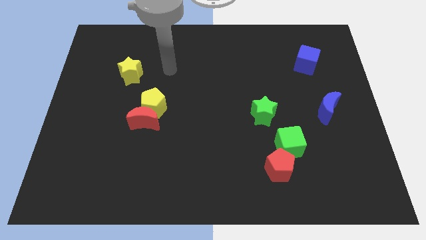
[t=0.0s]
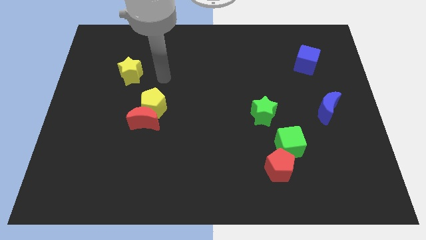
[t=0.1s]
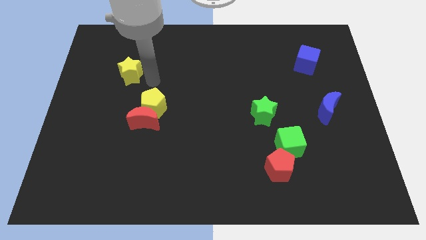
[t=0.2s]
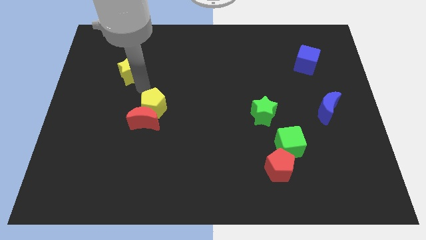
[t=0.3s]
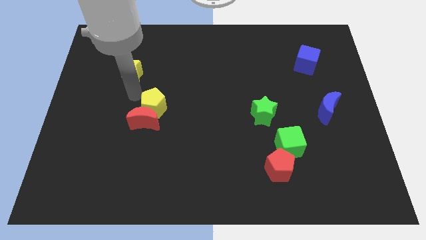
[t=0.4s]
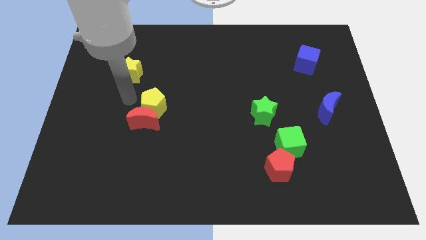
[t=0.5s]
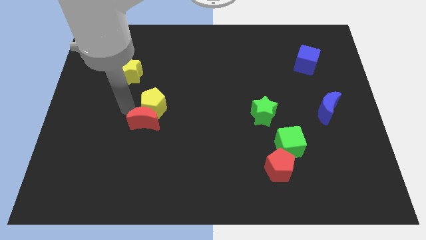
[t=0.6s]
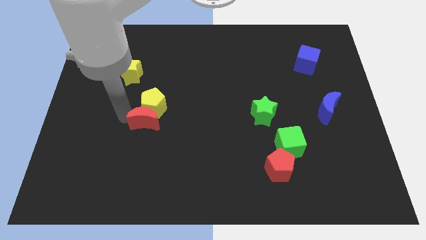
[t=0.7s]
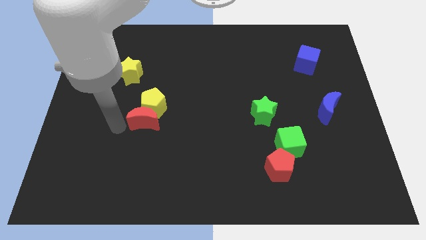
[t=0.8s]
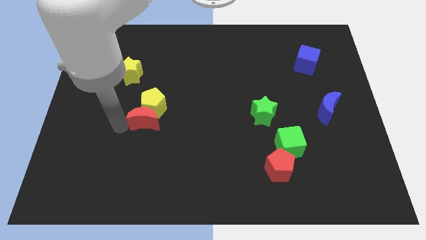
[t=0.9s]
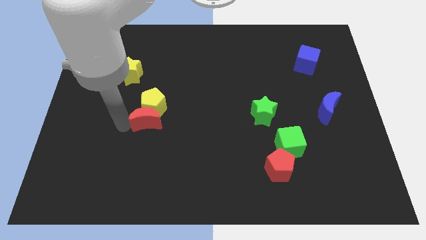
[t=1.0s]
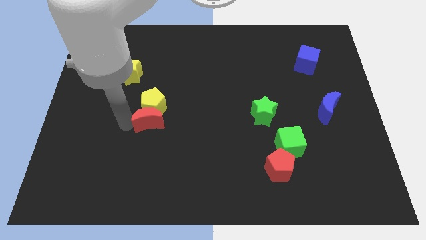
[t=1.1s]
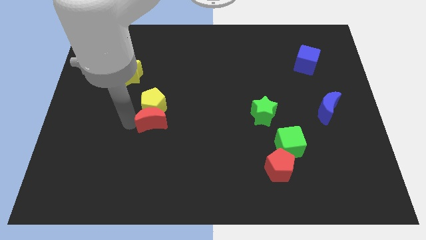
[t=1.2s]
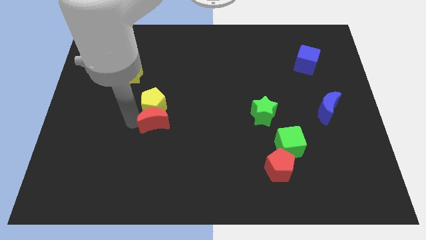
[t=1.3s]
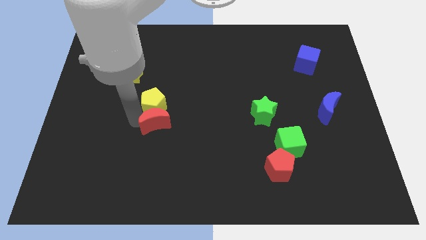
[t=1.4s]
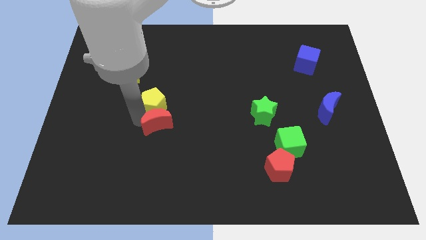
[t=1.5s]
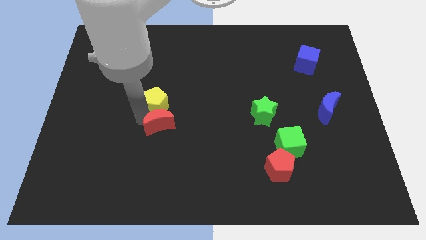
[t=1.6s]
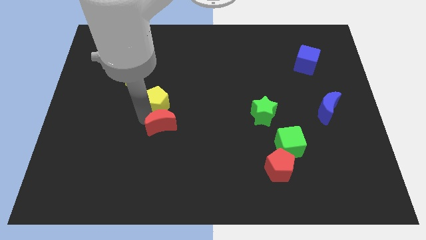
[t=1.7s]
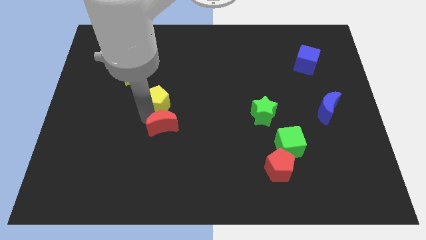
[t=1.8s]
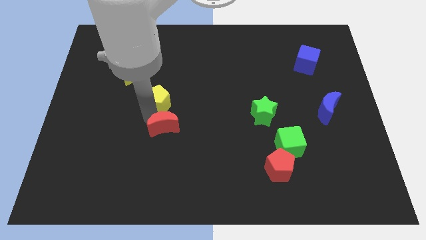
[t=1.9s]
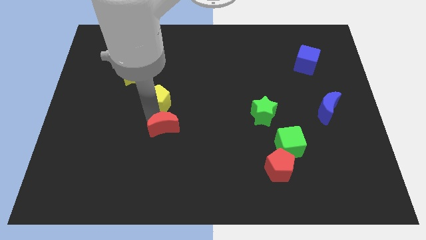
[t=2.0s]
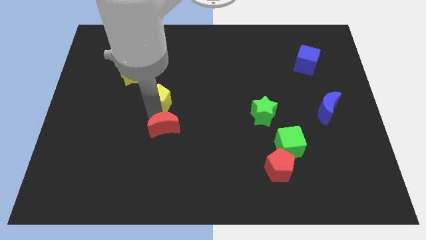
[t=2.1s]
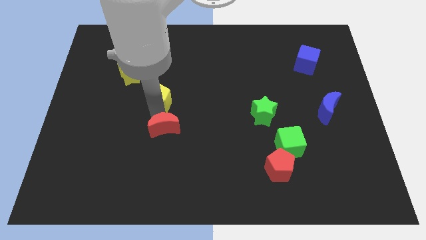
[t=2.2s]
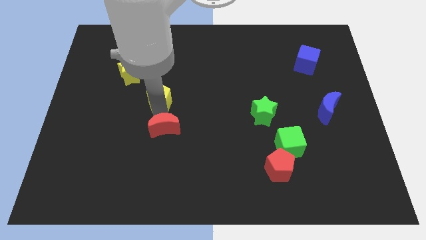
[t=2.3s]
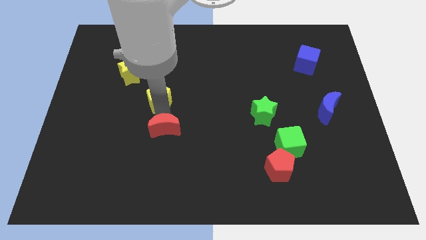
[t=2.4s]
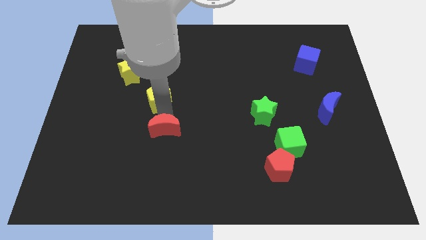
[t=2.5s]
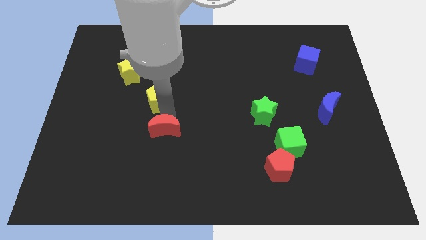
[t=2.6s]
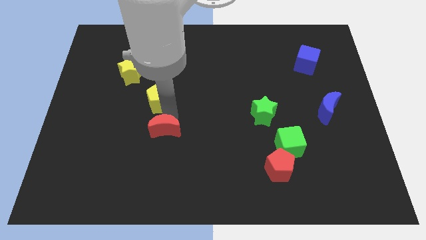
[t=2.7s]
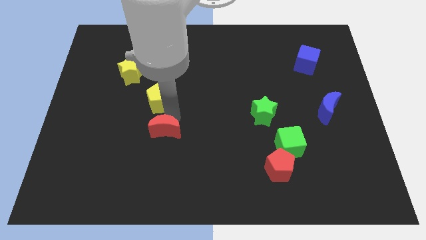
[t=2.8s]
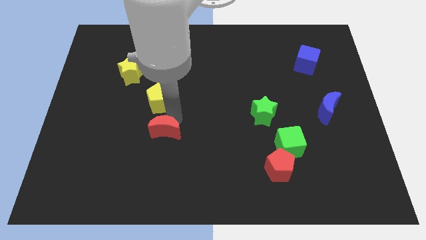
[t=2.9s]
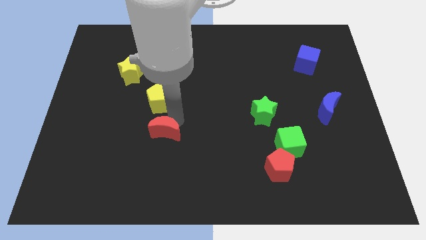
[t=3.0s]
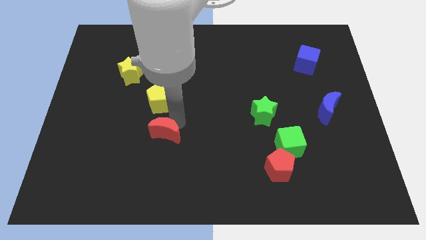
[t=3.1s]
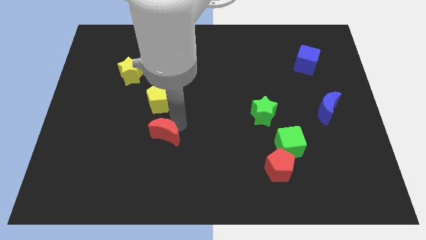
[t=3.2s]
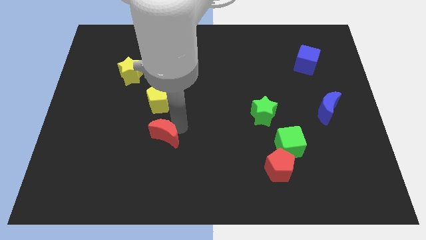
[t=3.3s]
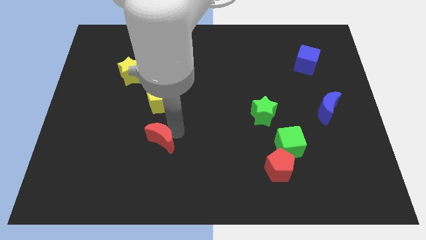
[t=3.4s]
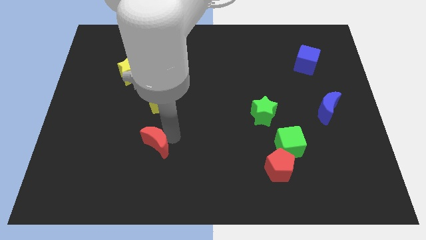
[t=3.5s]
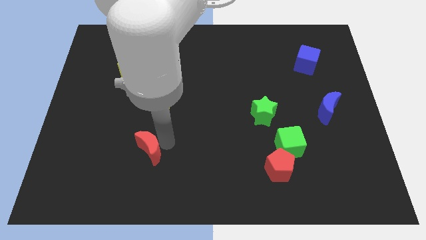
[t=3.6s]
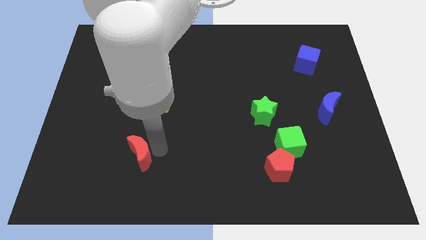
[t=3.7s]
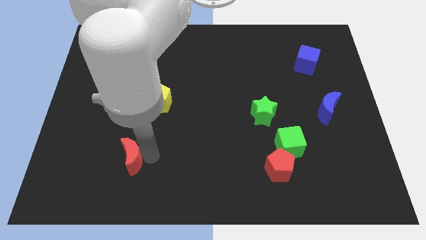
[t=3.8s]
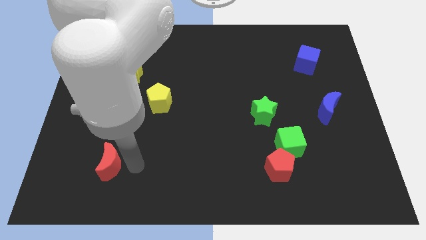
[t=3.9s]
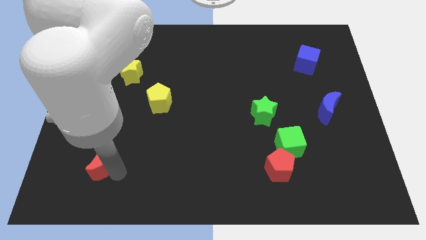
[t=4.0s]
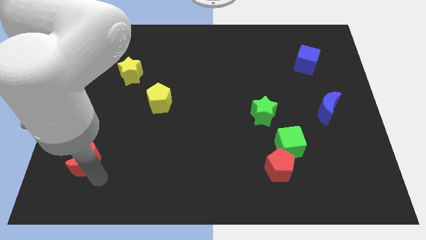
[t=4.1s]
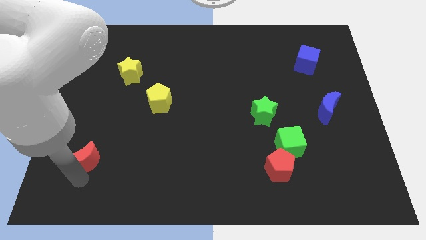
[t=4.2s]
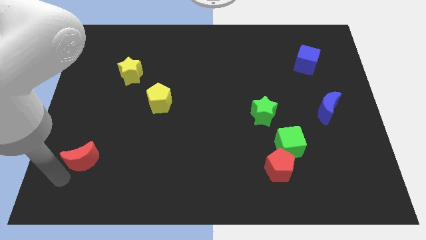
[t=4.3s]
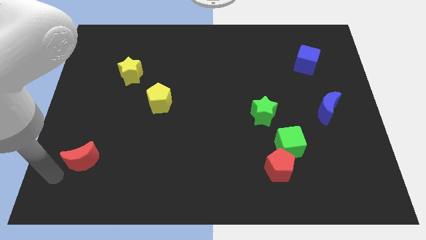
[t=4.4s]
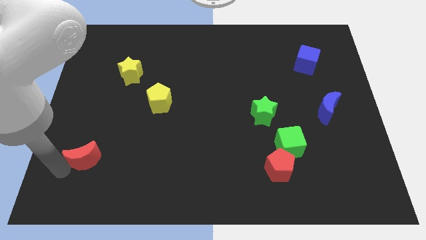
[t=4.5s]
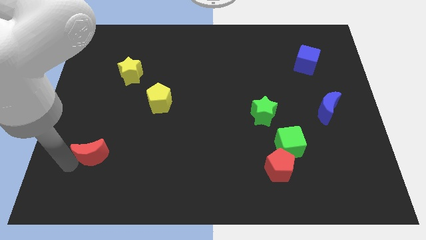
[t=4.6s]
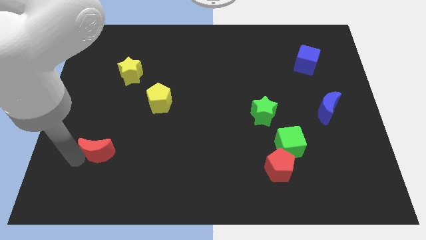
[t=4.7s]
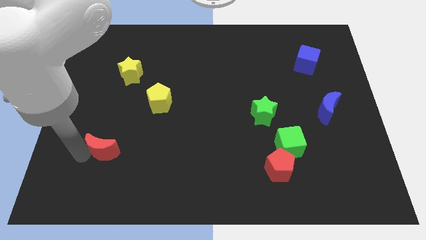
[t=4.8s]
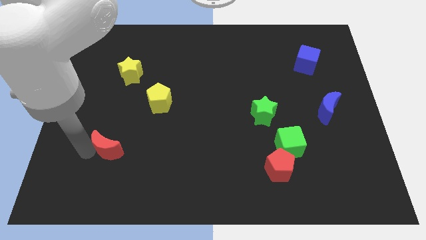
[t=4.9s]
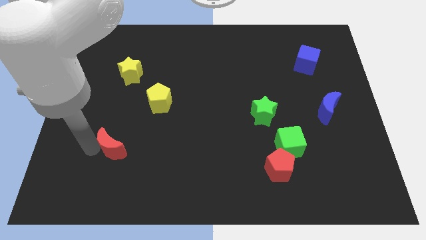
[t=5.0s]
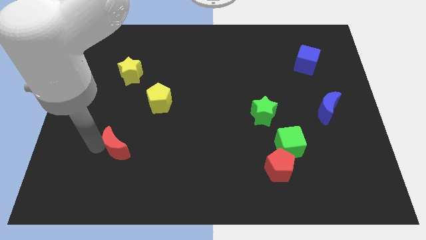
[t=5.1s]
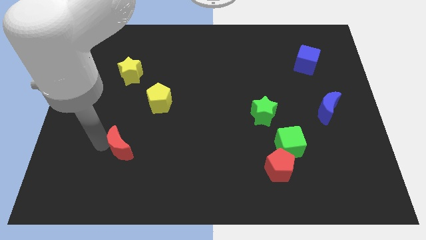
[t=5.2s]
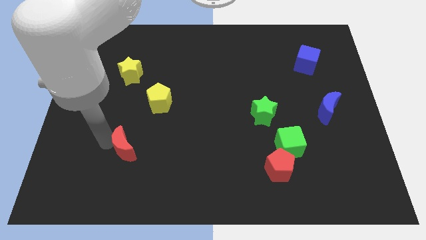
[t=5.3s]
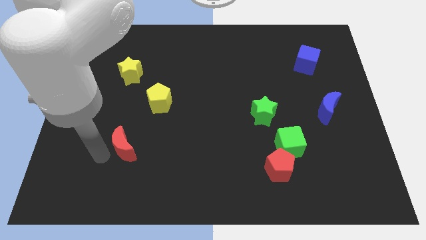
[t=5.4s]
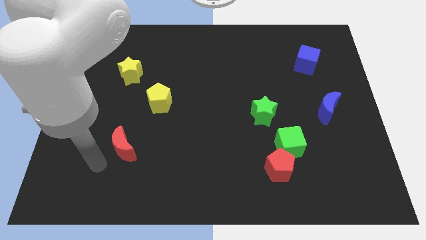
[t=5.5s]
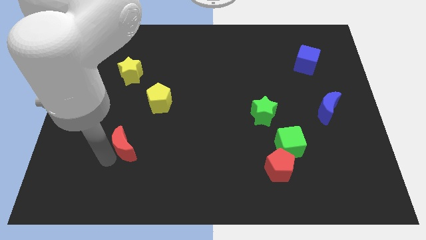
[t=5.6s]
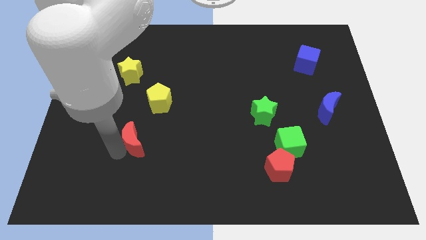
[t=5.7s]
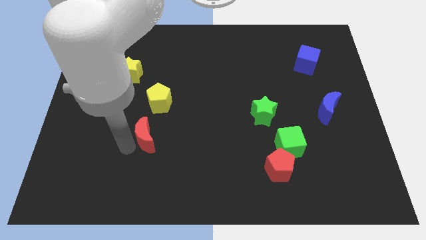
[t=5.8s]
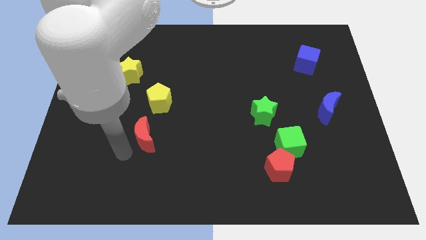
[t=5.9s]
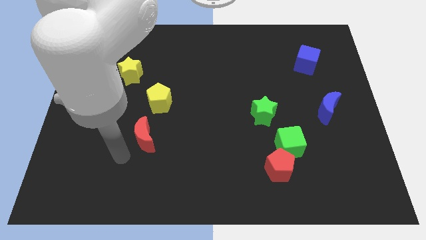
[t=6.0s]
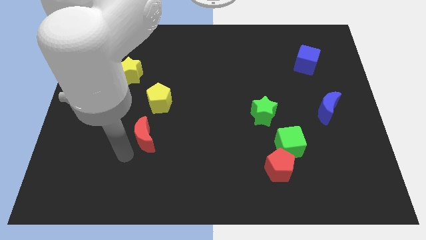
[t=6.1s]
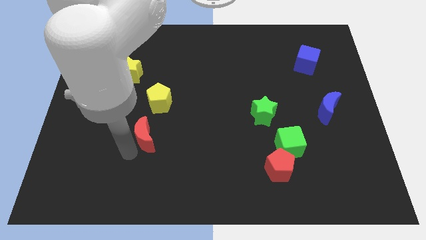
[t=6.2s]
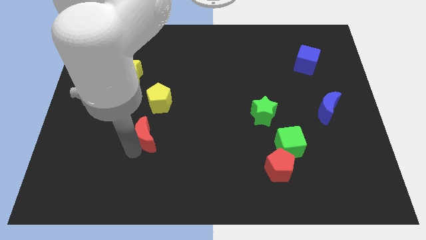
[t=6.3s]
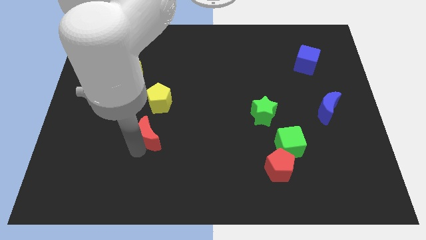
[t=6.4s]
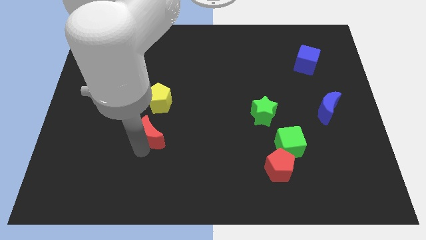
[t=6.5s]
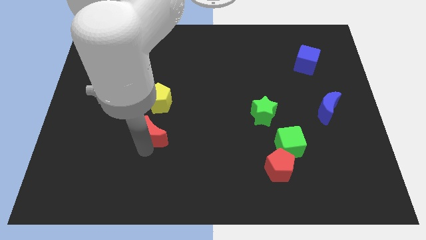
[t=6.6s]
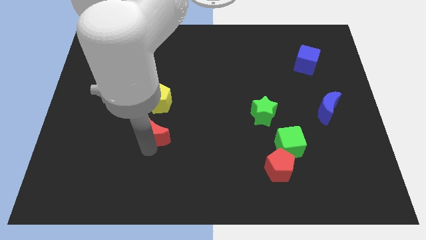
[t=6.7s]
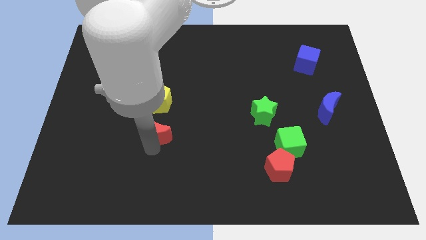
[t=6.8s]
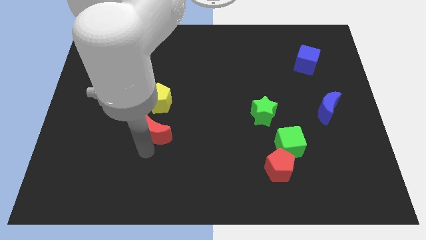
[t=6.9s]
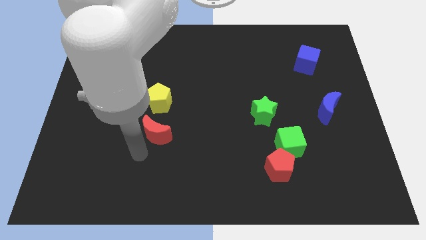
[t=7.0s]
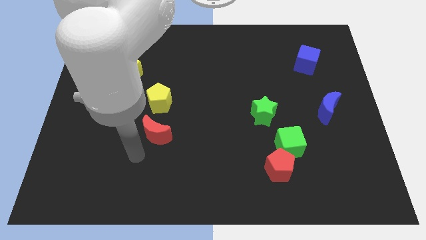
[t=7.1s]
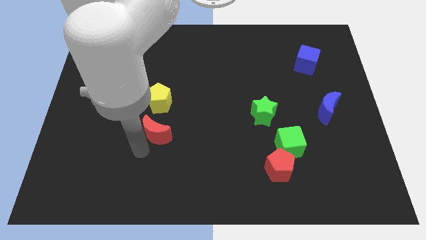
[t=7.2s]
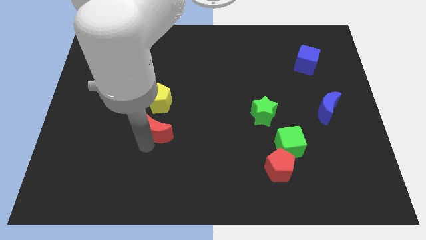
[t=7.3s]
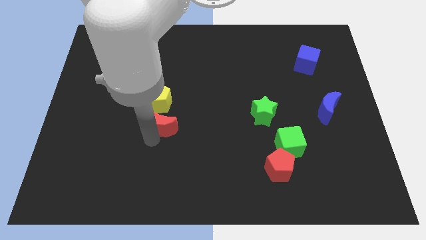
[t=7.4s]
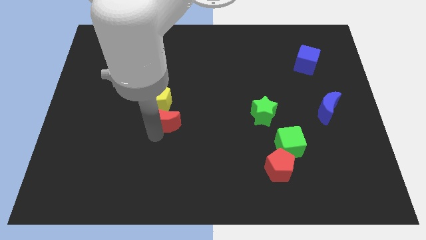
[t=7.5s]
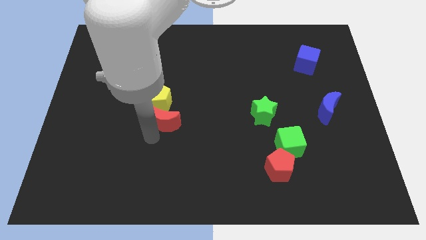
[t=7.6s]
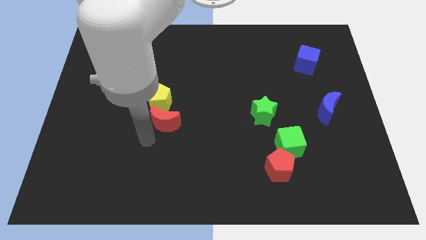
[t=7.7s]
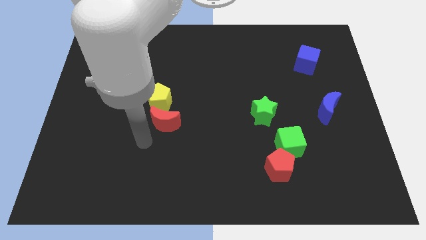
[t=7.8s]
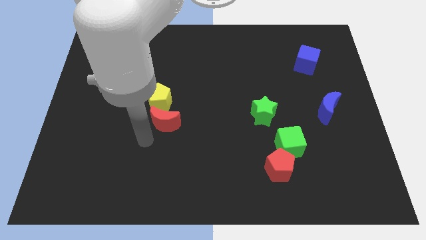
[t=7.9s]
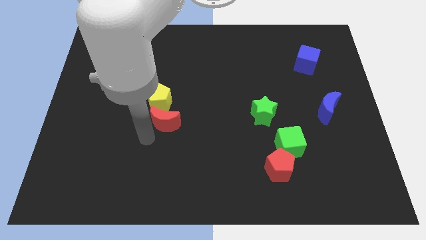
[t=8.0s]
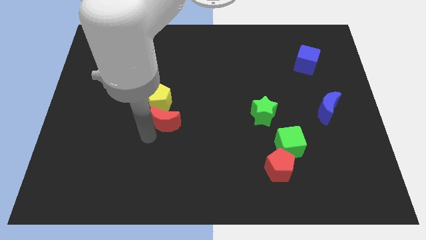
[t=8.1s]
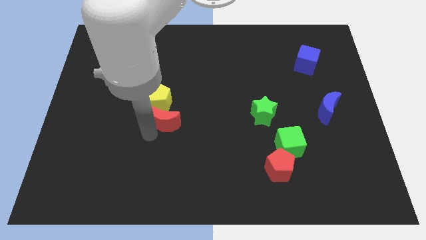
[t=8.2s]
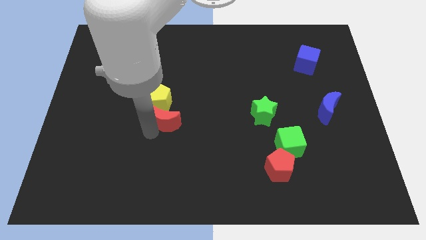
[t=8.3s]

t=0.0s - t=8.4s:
move the red moon to the center of the board
